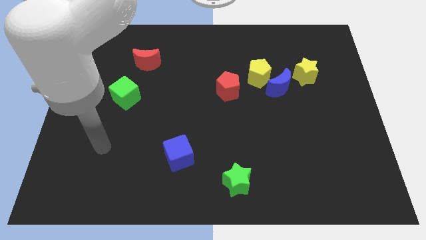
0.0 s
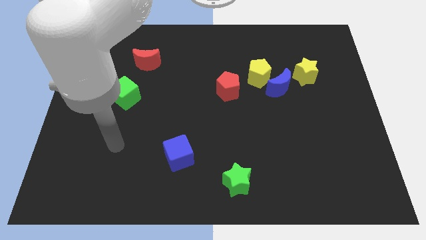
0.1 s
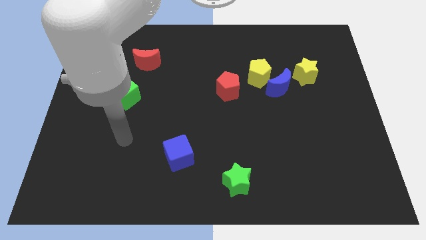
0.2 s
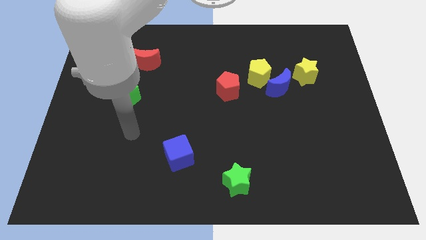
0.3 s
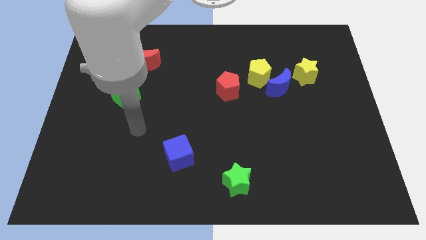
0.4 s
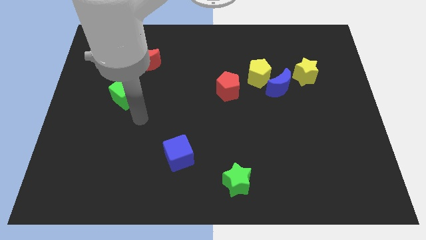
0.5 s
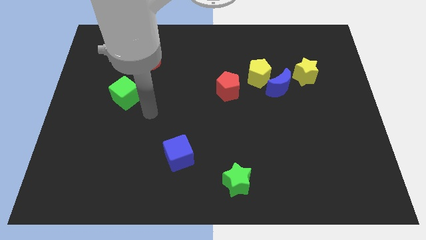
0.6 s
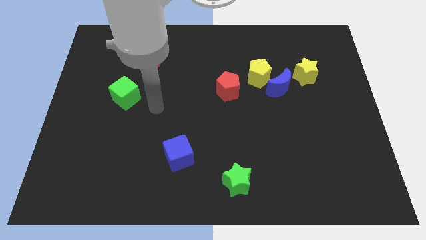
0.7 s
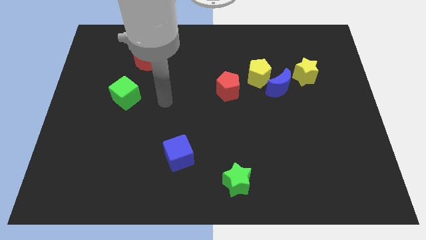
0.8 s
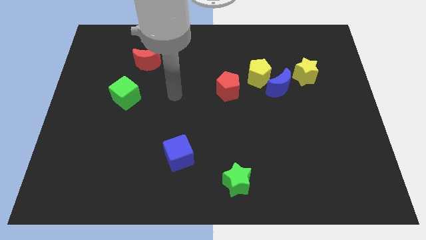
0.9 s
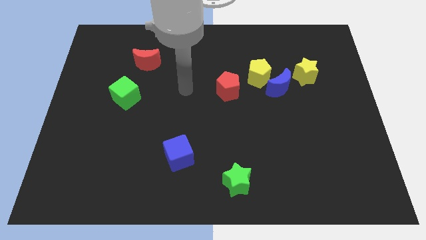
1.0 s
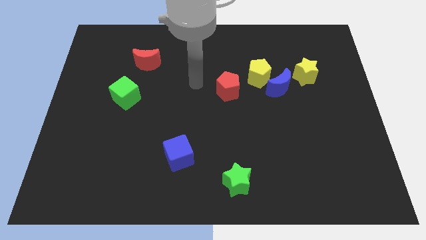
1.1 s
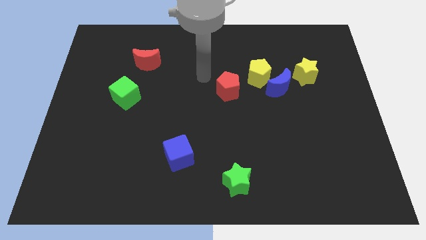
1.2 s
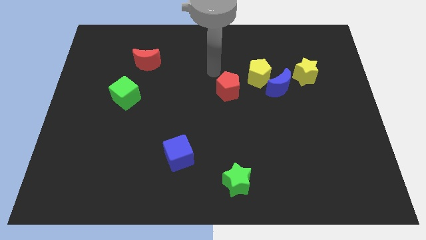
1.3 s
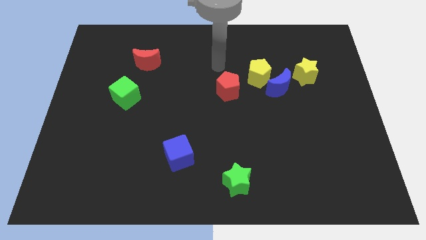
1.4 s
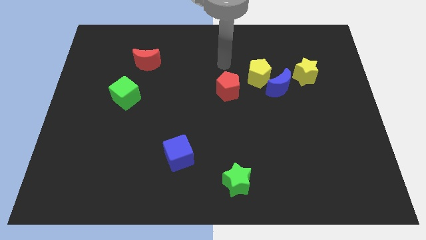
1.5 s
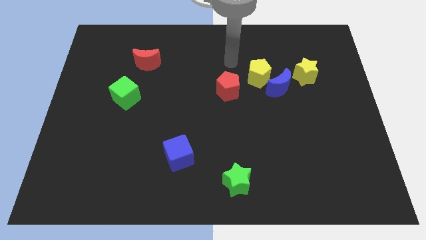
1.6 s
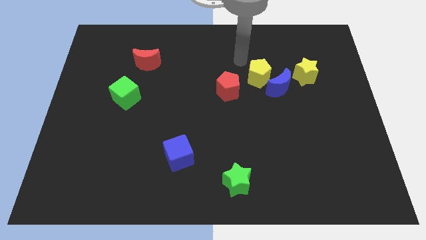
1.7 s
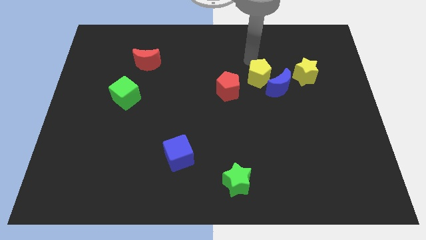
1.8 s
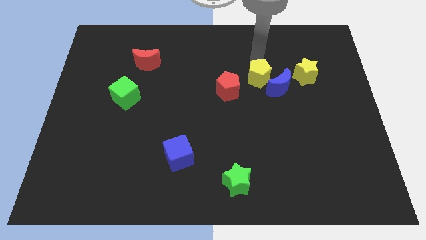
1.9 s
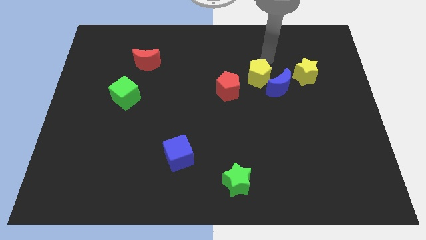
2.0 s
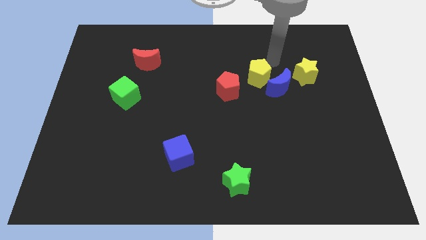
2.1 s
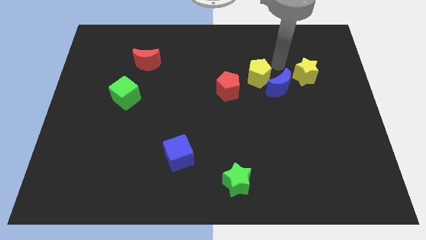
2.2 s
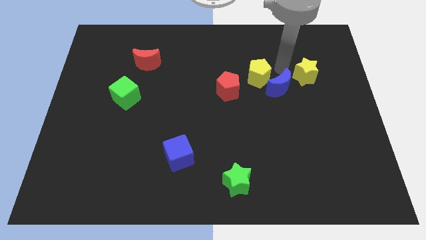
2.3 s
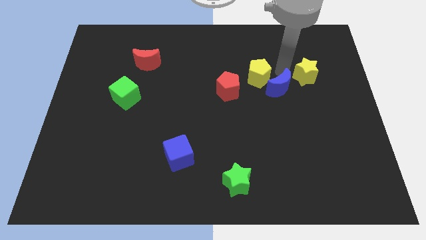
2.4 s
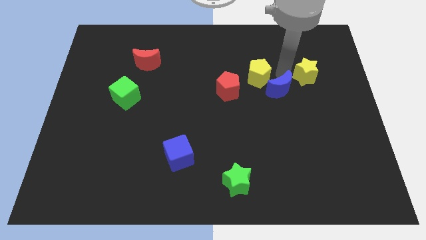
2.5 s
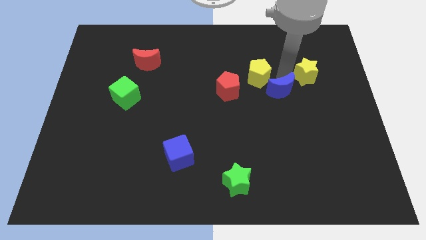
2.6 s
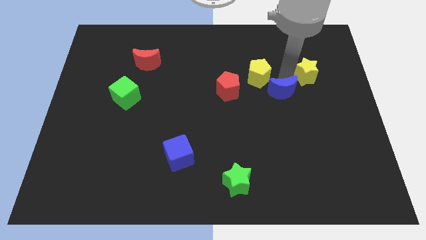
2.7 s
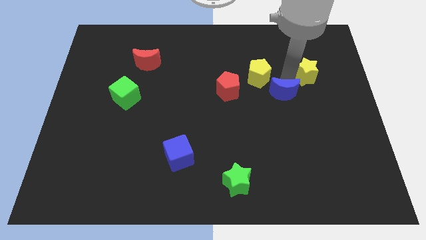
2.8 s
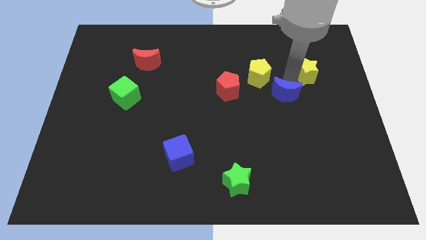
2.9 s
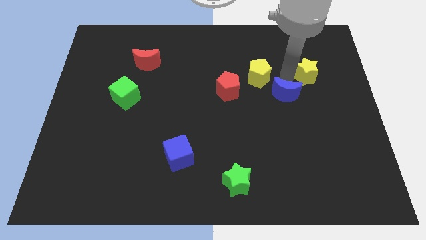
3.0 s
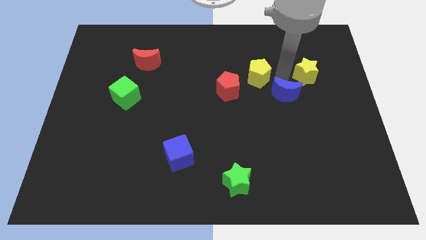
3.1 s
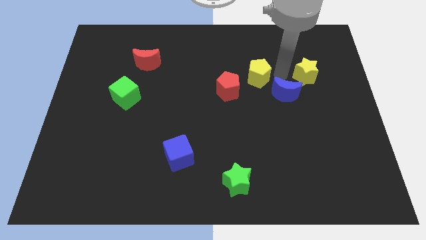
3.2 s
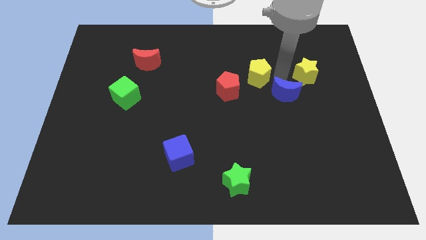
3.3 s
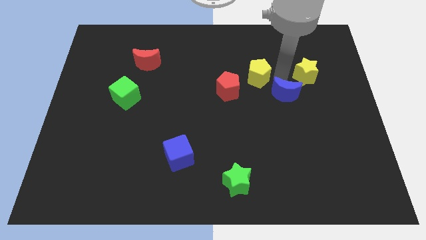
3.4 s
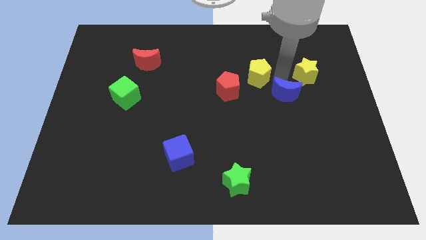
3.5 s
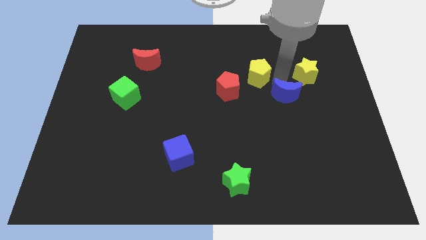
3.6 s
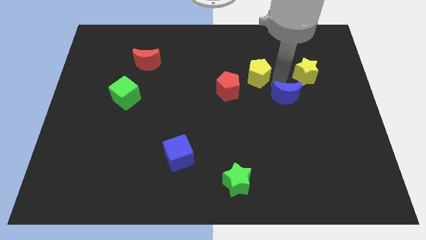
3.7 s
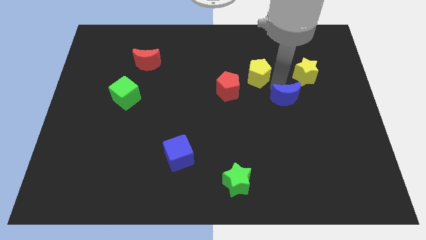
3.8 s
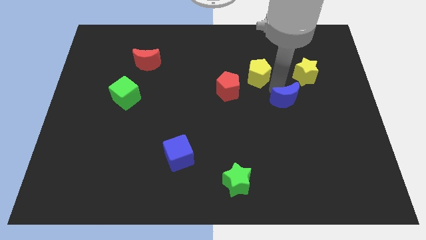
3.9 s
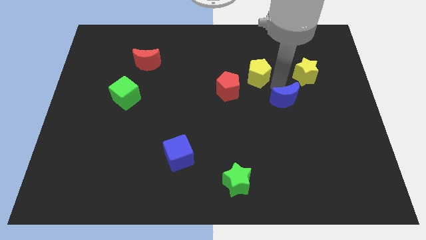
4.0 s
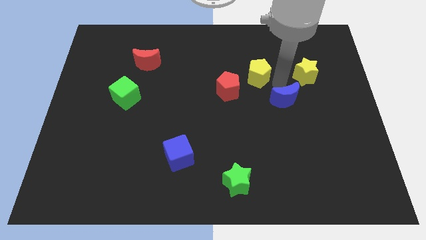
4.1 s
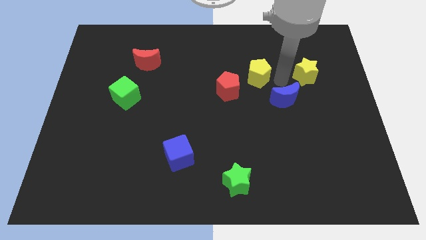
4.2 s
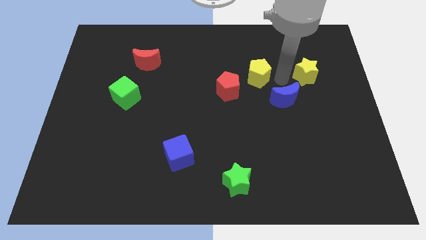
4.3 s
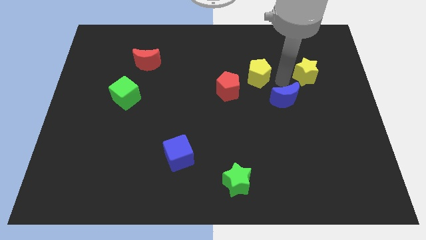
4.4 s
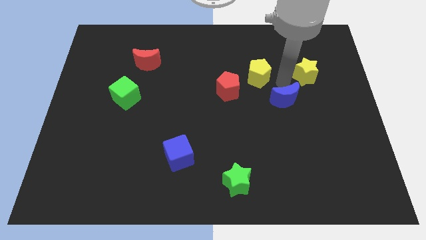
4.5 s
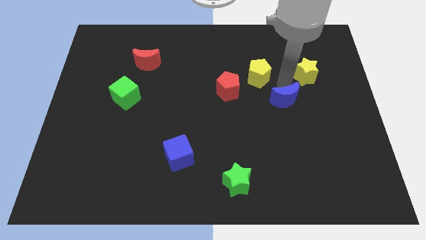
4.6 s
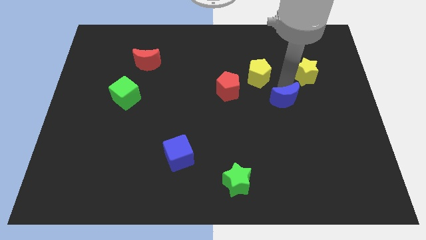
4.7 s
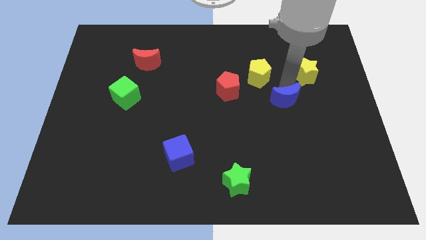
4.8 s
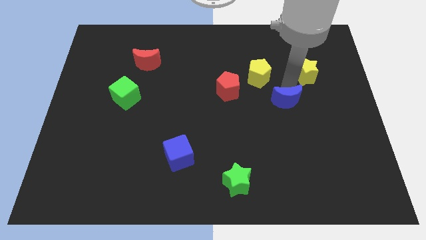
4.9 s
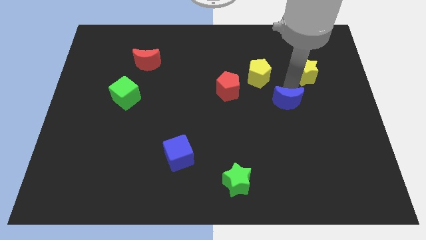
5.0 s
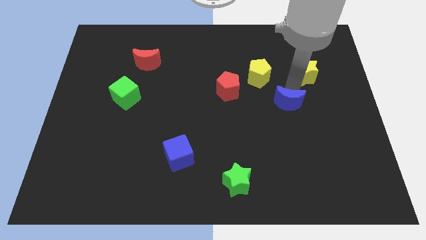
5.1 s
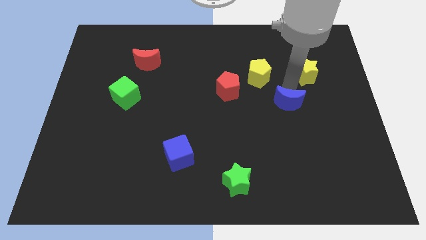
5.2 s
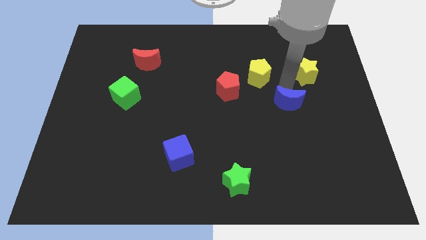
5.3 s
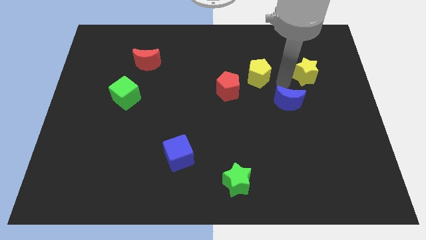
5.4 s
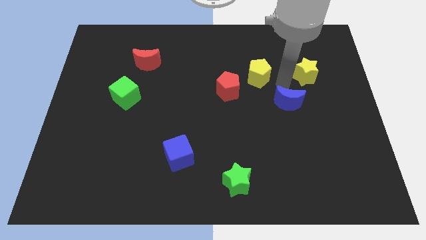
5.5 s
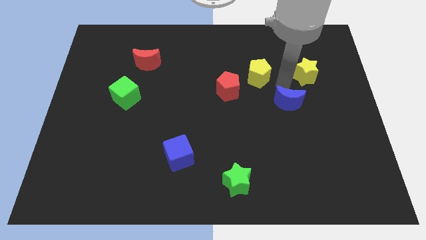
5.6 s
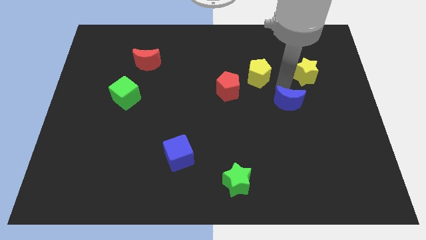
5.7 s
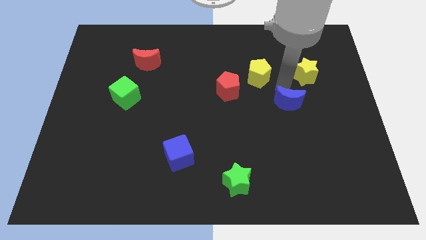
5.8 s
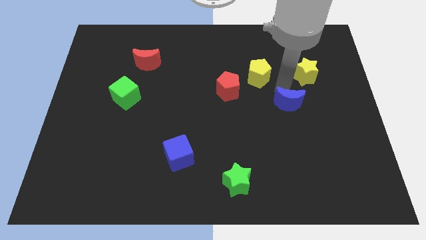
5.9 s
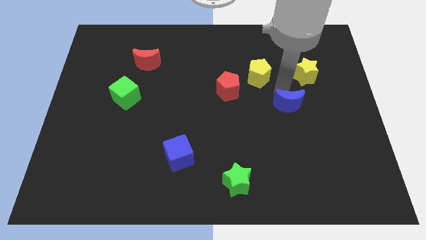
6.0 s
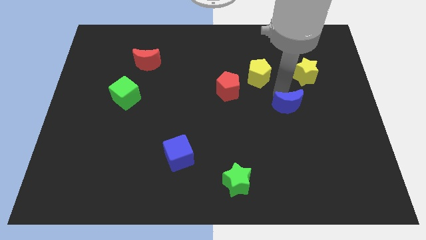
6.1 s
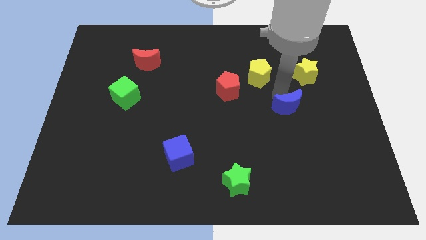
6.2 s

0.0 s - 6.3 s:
separate the blue moon from the yellow pentagon and yellow star

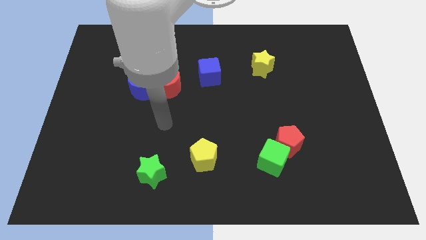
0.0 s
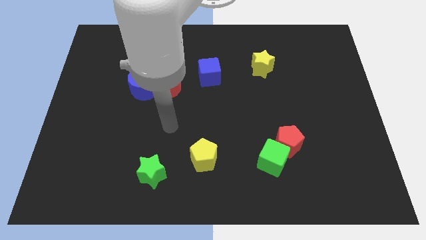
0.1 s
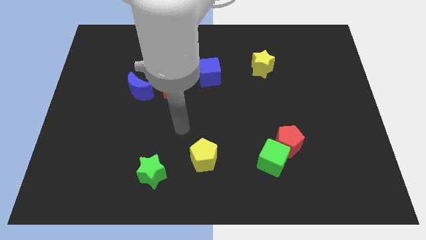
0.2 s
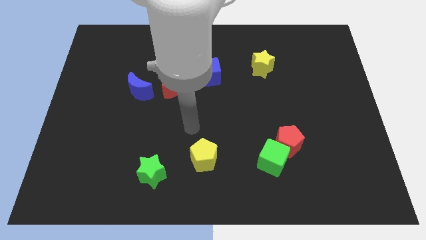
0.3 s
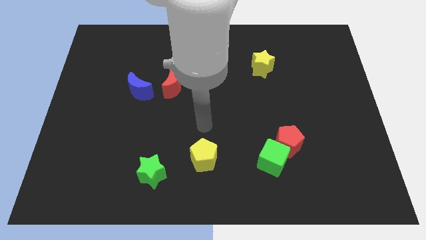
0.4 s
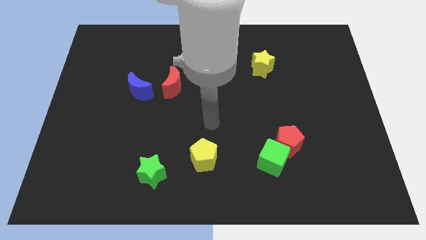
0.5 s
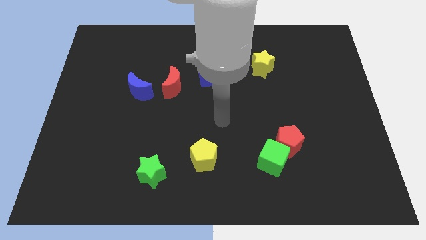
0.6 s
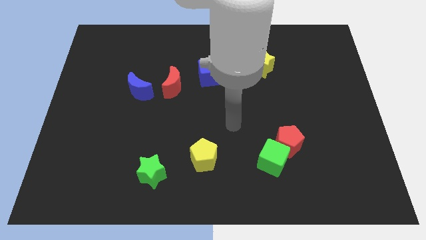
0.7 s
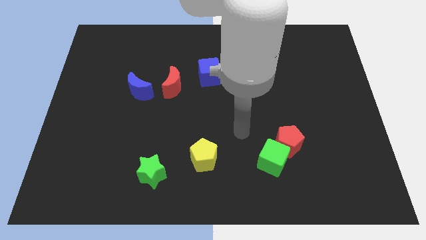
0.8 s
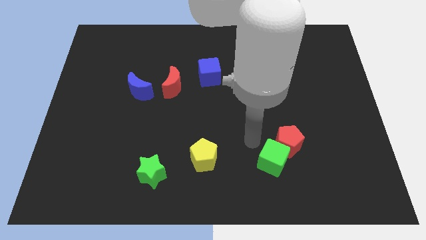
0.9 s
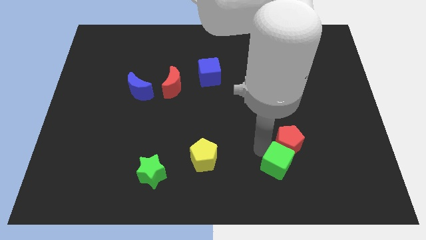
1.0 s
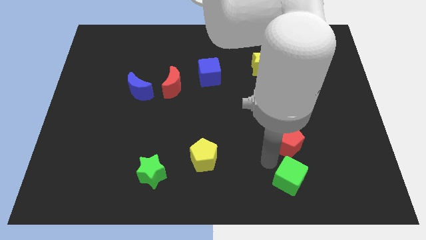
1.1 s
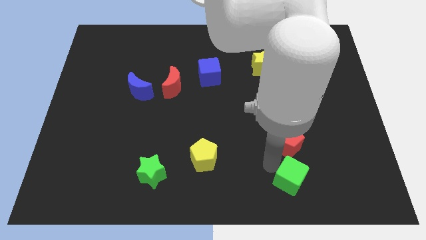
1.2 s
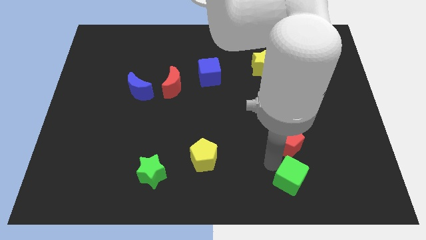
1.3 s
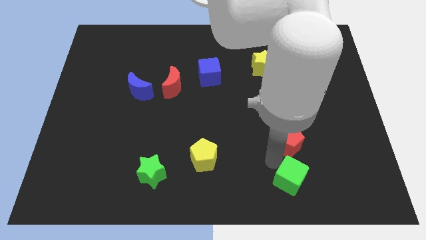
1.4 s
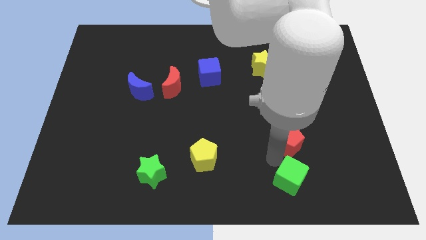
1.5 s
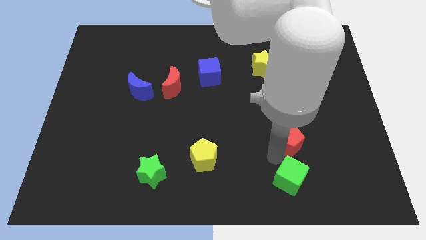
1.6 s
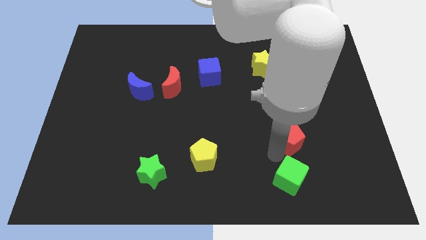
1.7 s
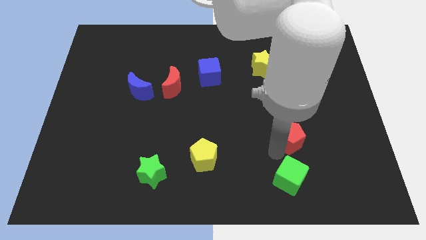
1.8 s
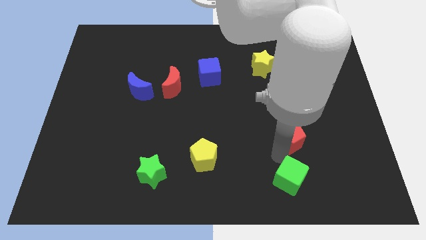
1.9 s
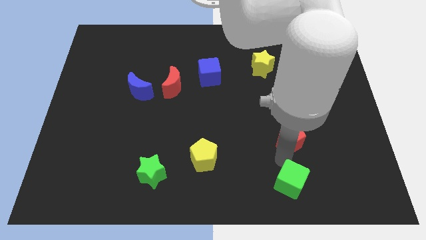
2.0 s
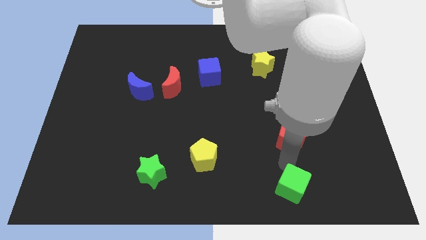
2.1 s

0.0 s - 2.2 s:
separate the red pentagon from the green cube

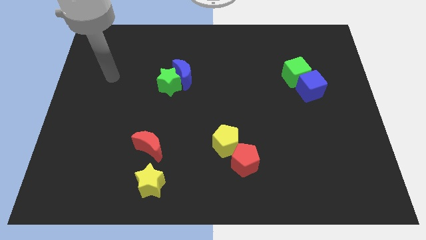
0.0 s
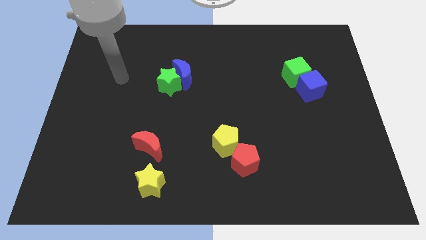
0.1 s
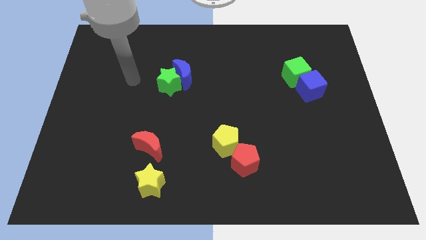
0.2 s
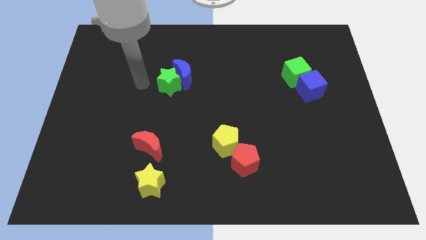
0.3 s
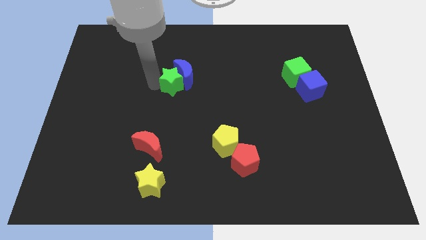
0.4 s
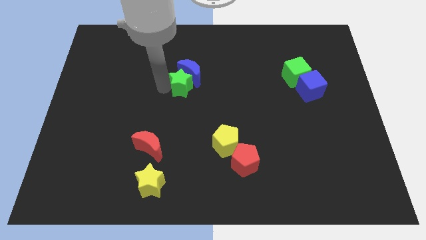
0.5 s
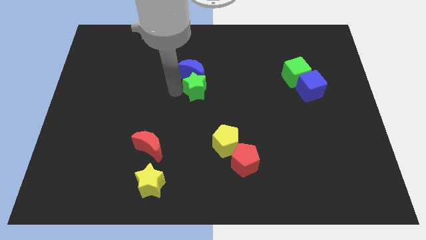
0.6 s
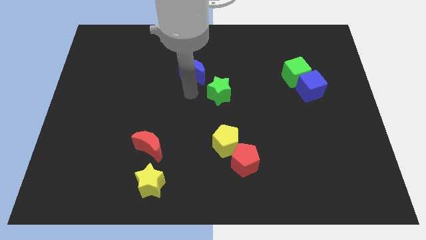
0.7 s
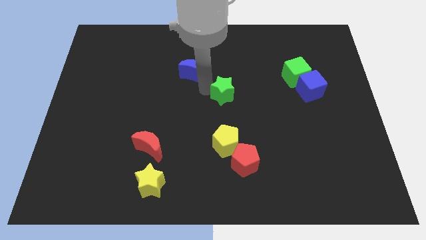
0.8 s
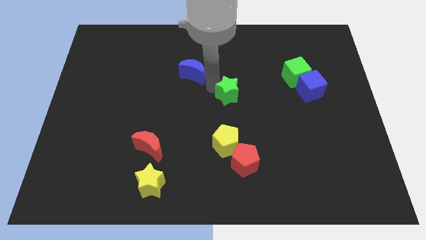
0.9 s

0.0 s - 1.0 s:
move the blue moon away from the green star
